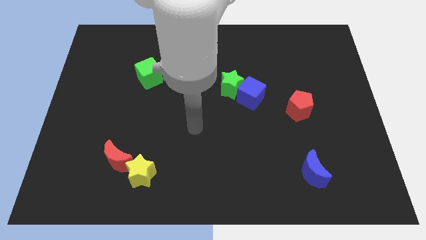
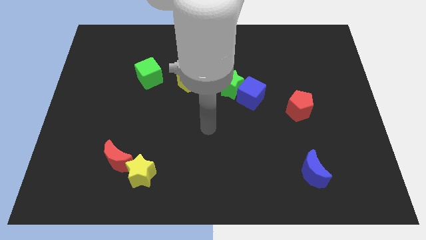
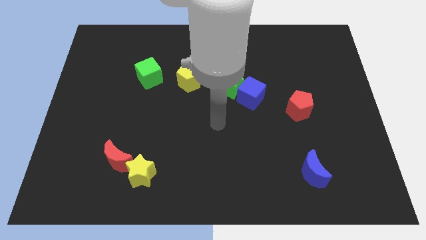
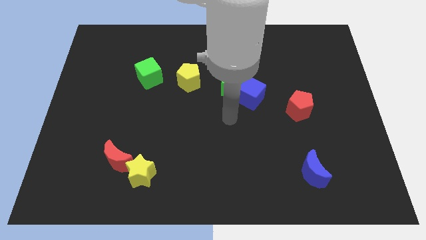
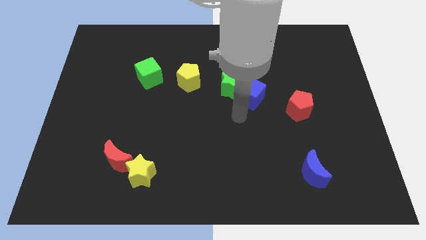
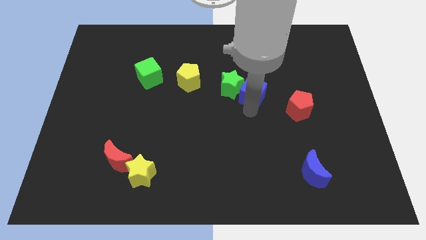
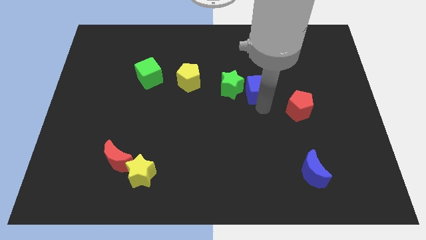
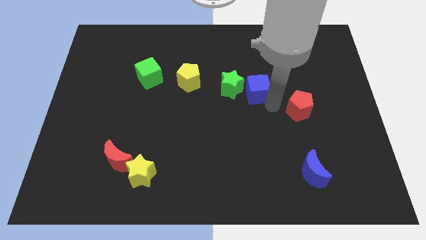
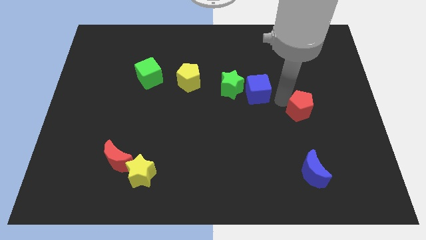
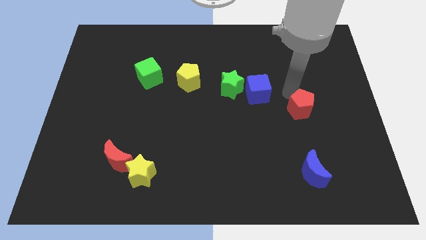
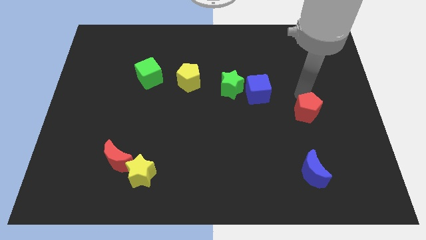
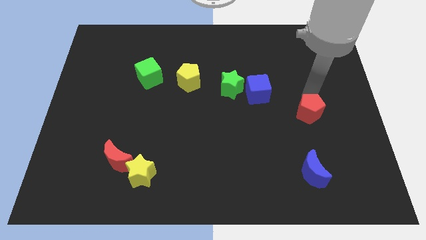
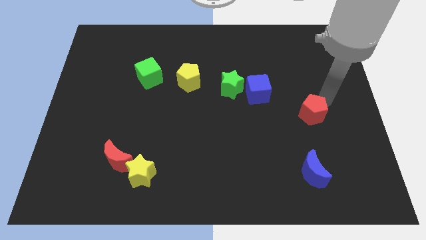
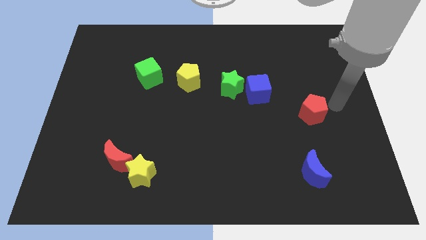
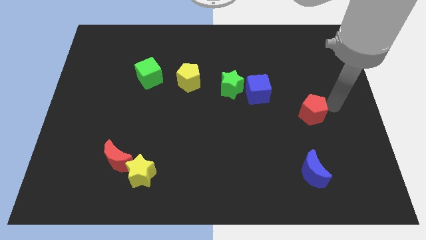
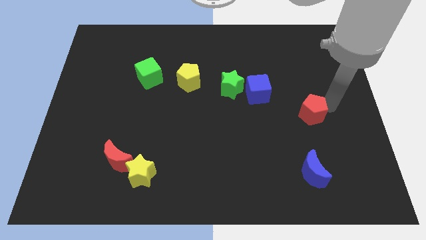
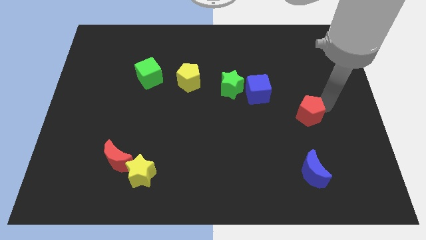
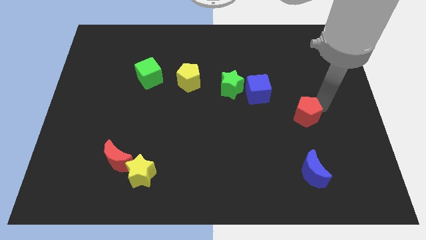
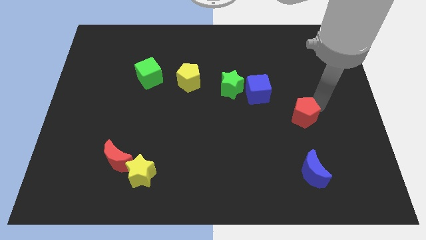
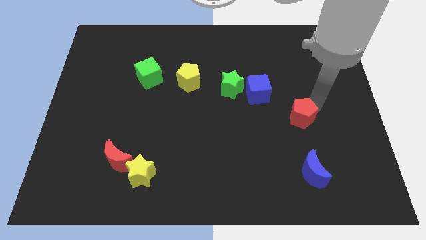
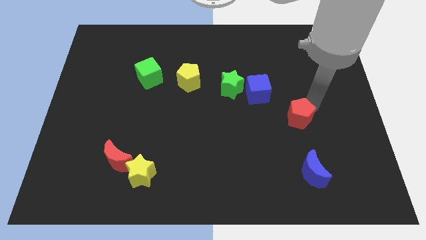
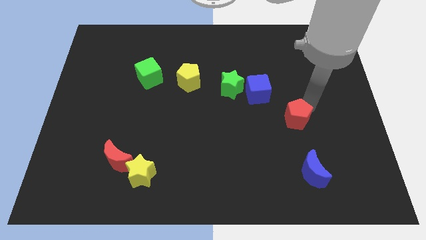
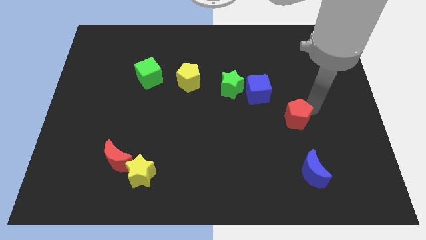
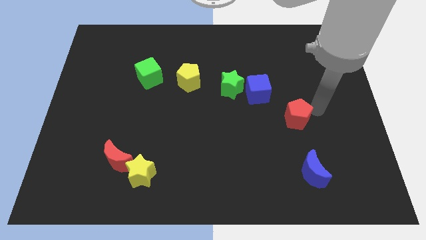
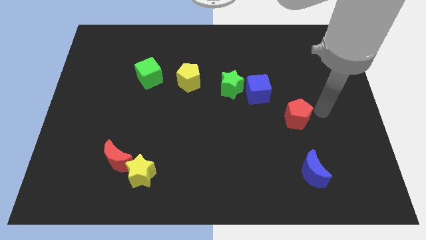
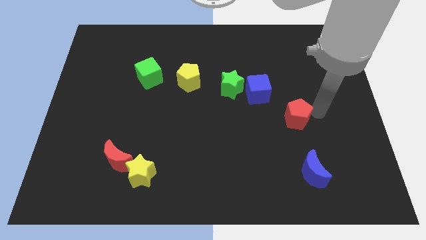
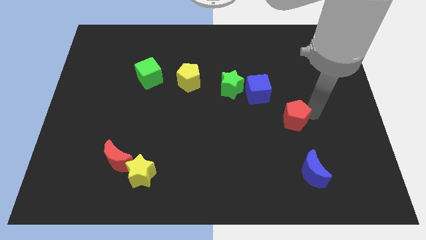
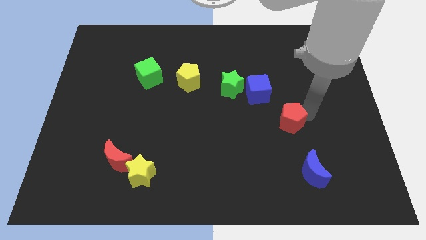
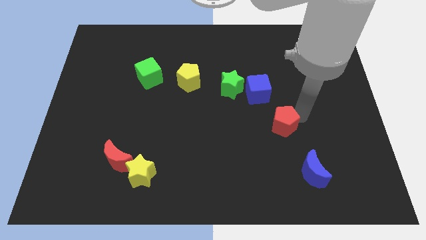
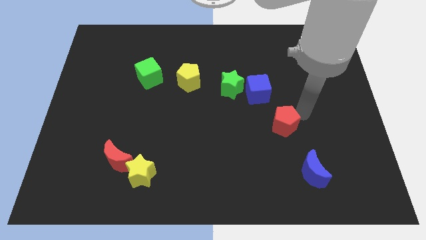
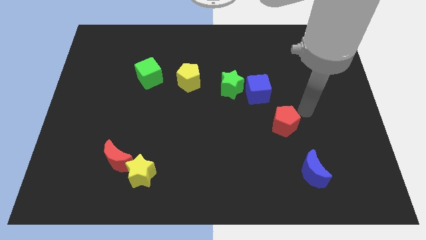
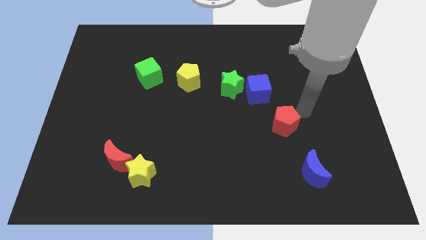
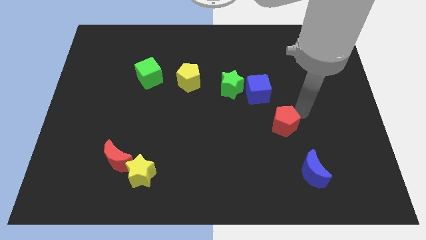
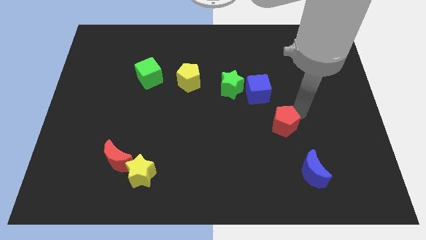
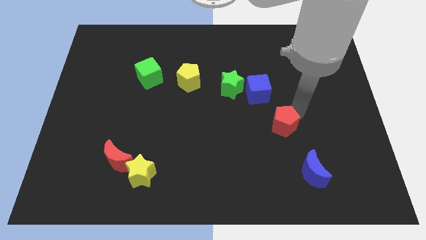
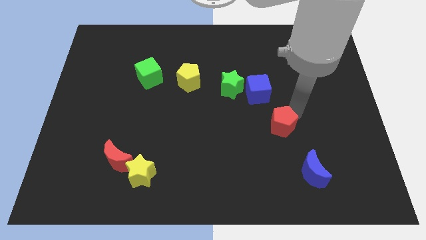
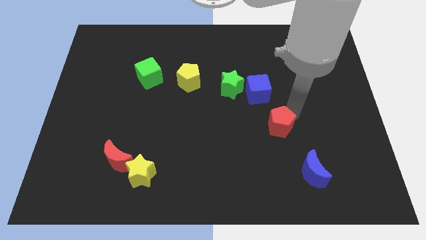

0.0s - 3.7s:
slightly slide the red pentagon downwards and to the left diagonally

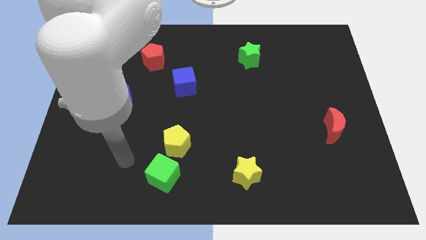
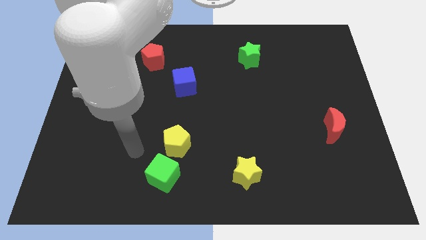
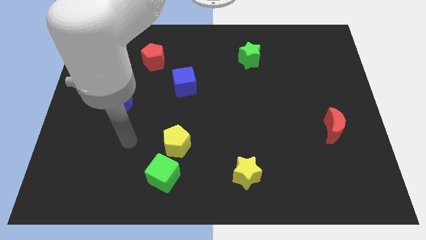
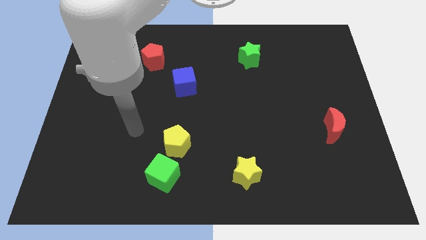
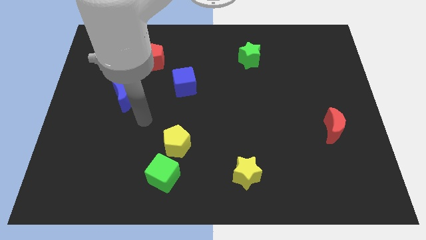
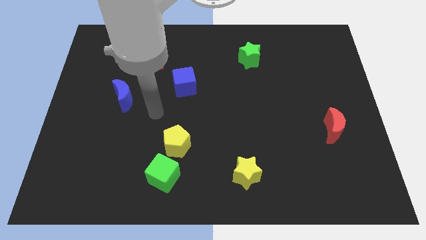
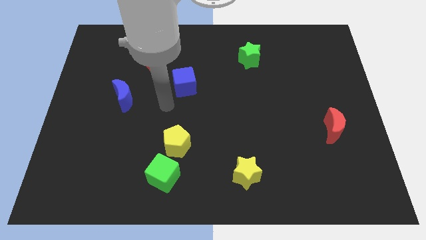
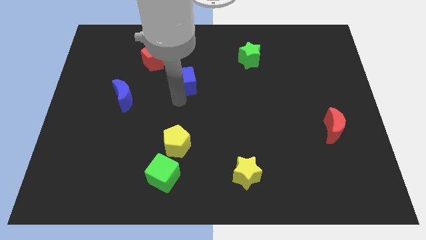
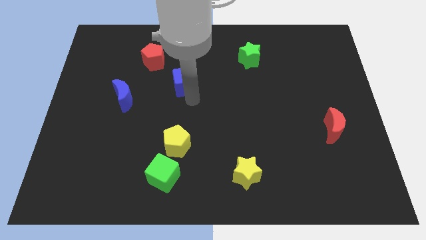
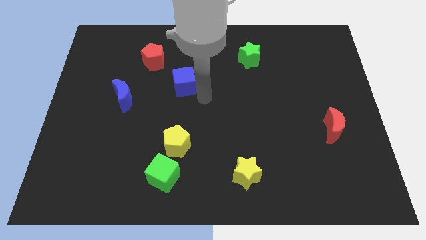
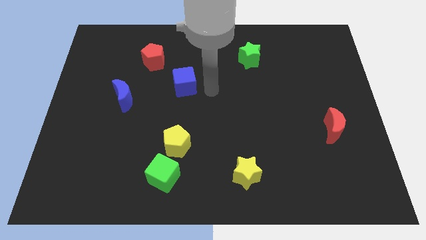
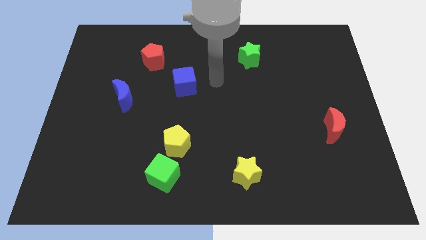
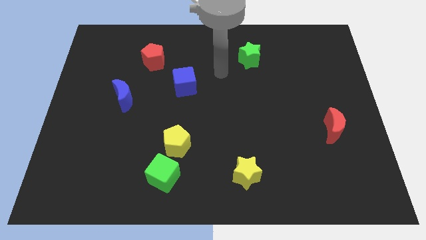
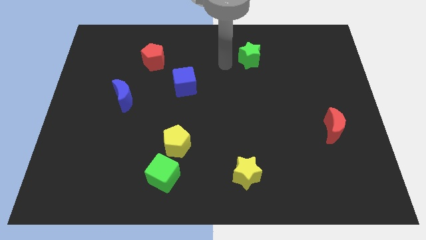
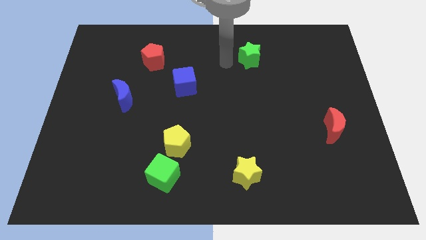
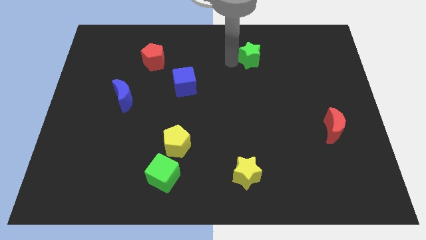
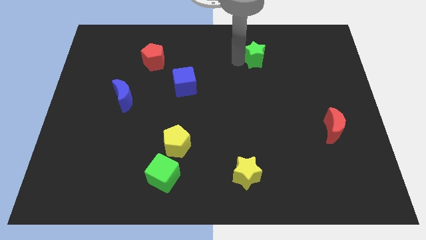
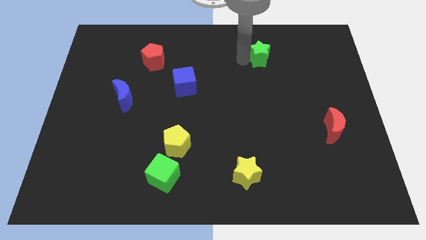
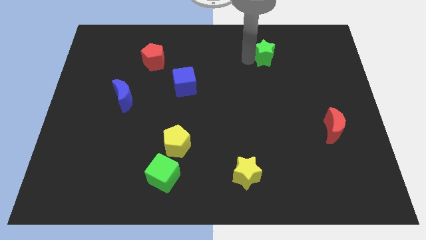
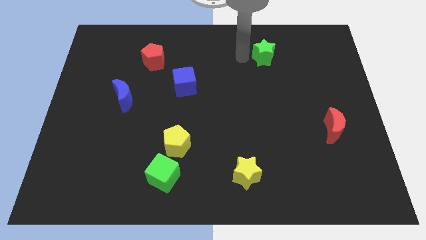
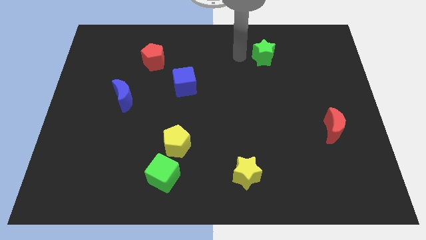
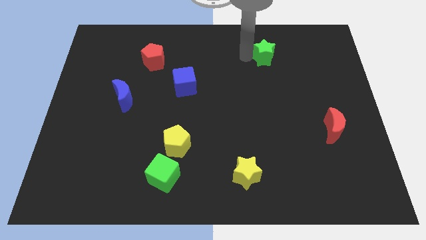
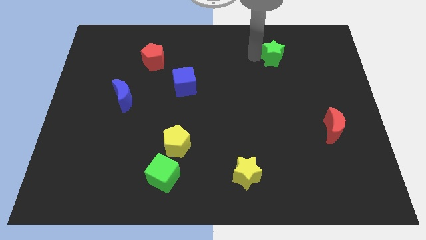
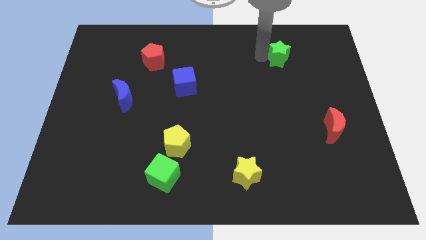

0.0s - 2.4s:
slightly move the green star right

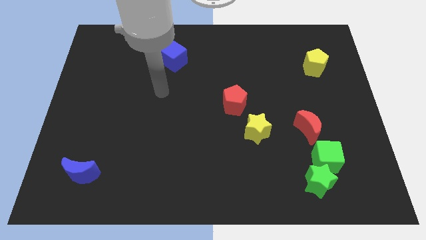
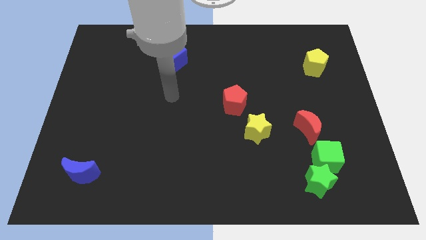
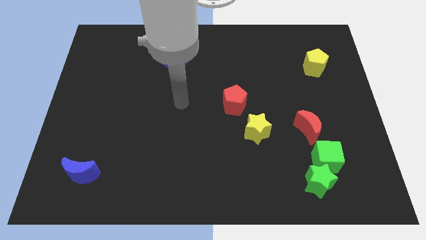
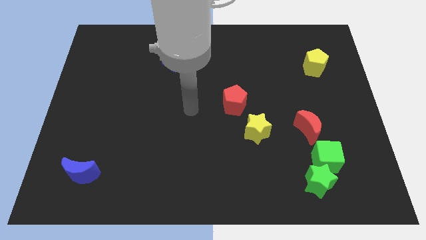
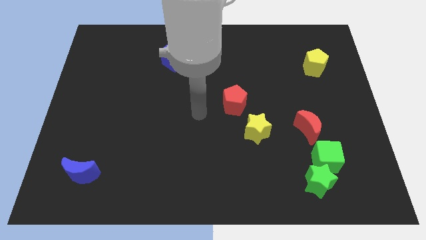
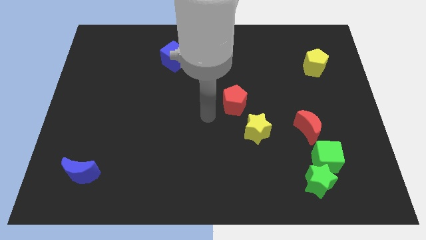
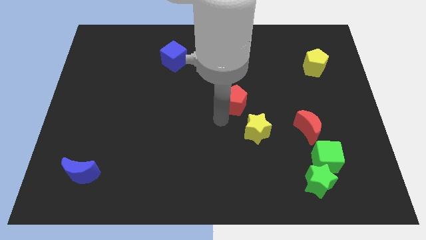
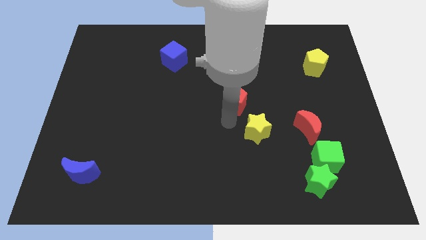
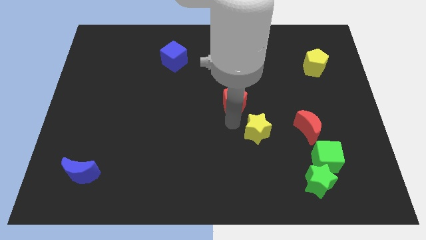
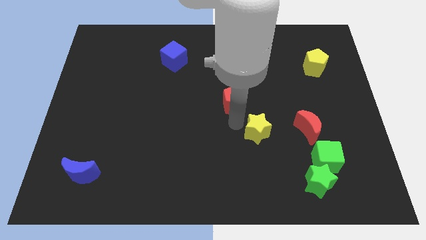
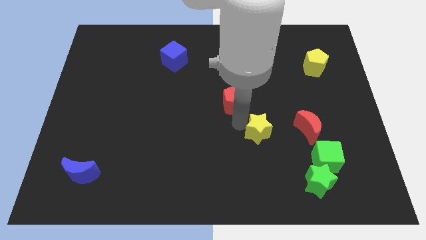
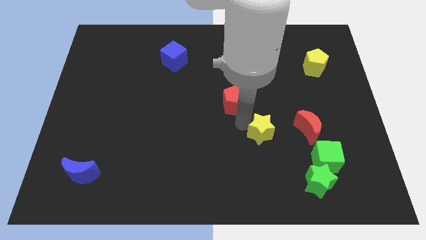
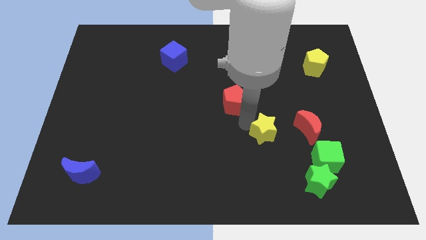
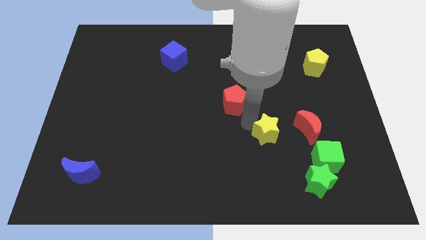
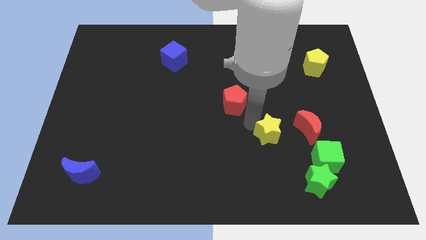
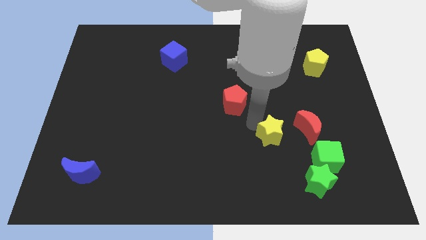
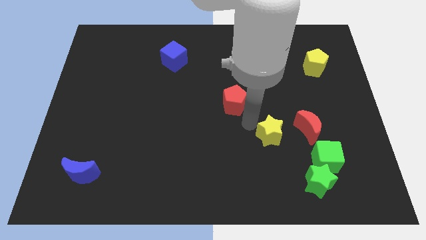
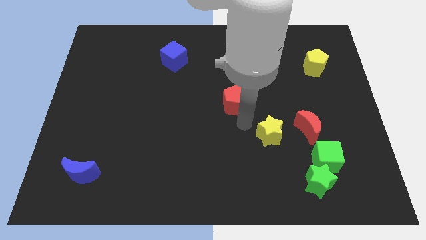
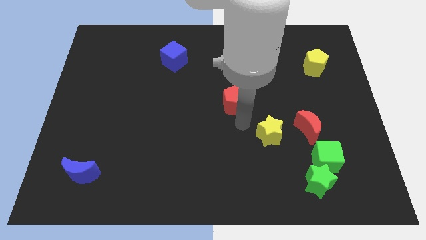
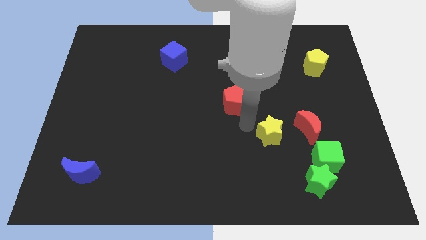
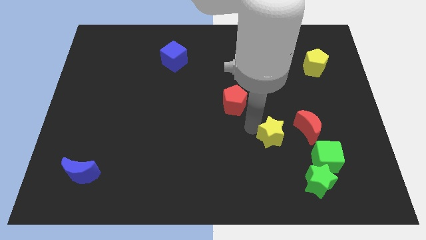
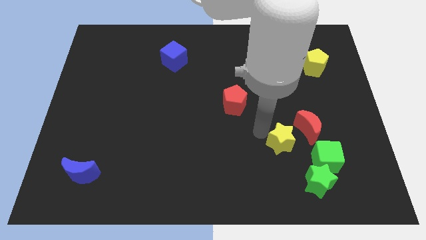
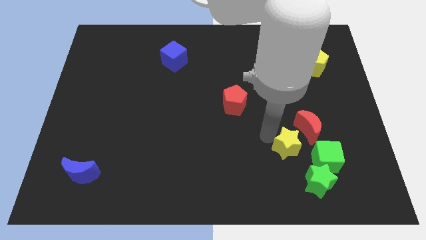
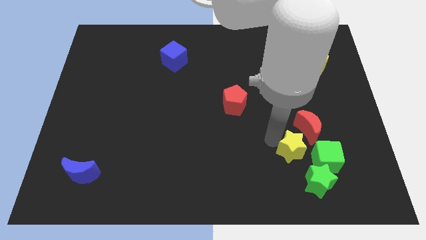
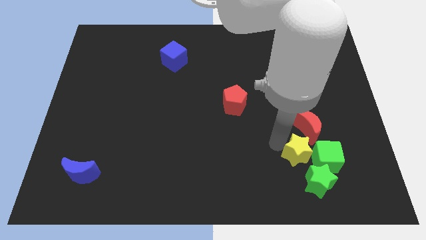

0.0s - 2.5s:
slightly slide the yellow star right
